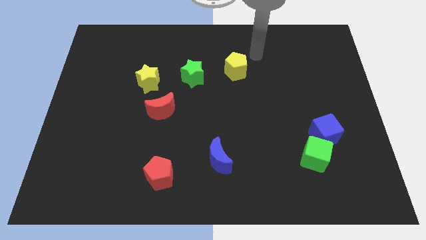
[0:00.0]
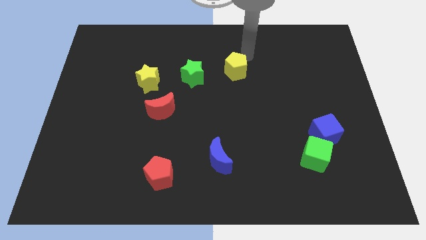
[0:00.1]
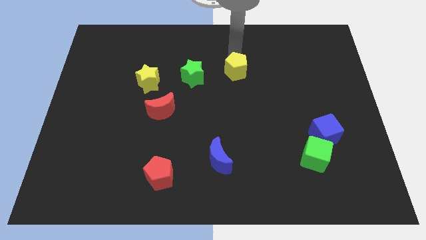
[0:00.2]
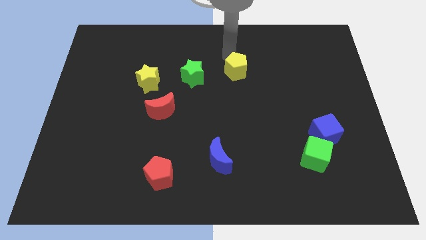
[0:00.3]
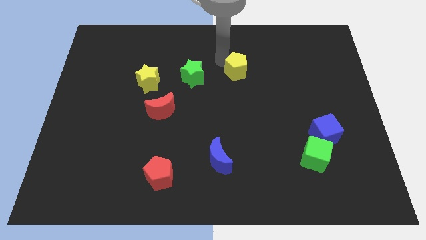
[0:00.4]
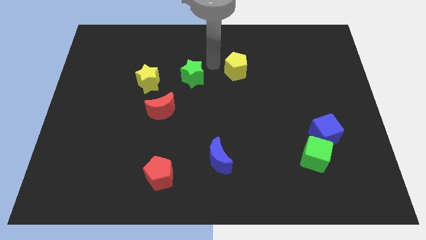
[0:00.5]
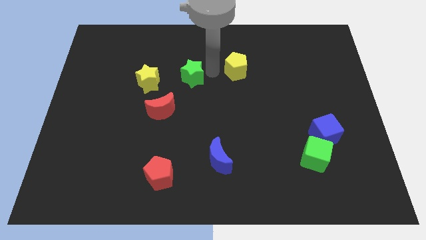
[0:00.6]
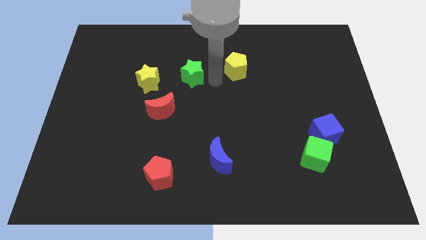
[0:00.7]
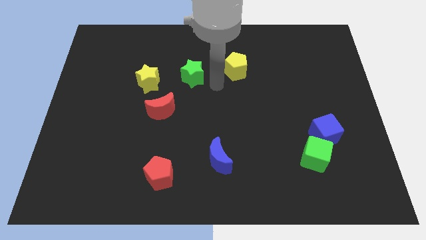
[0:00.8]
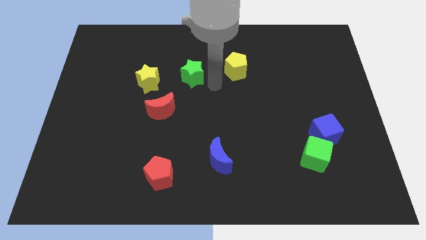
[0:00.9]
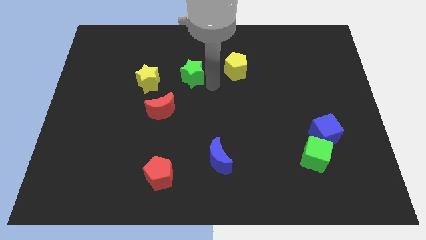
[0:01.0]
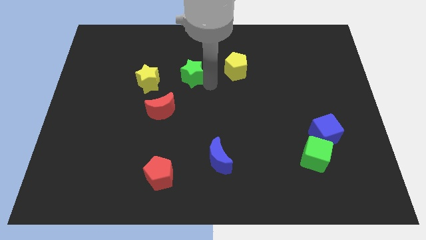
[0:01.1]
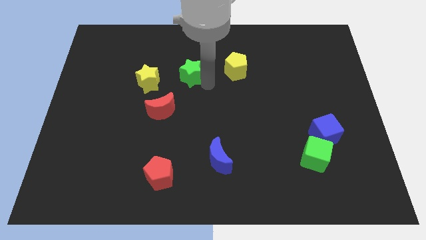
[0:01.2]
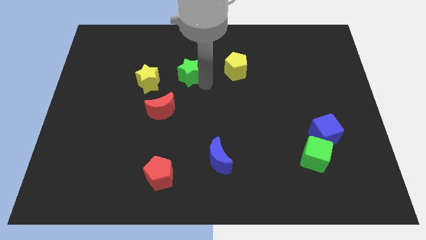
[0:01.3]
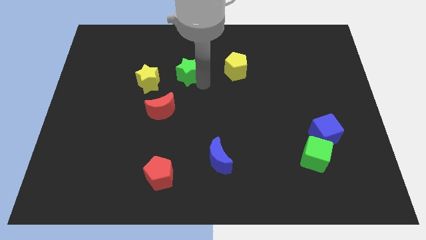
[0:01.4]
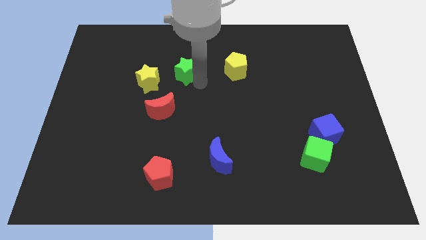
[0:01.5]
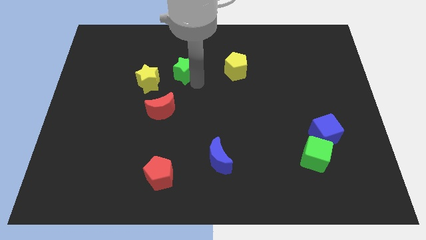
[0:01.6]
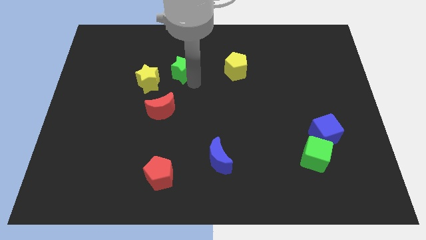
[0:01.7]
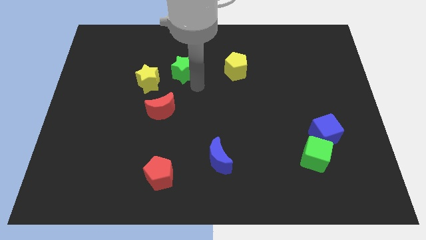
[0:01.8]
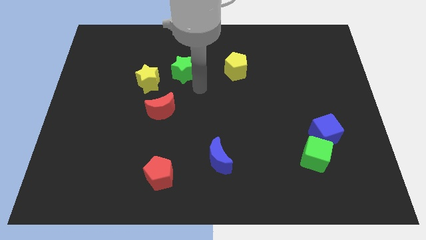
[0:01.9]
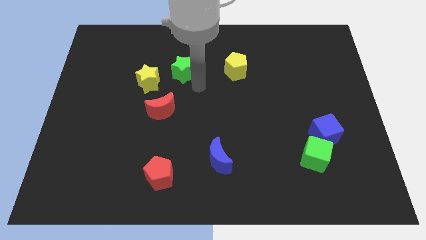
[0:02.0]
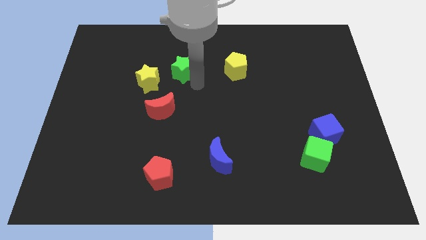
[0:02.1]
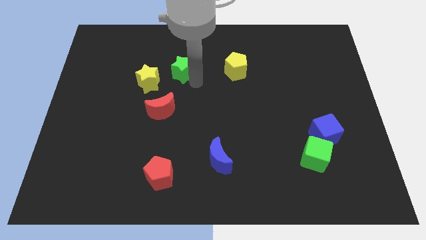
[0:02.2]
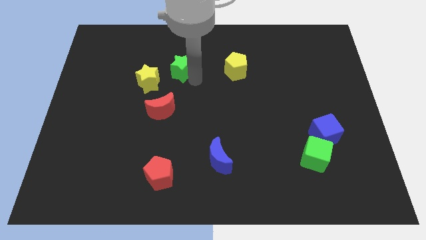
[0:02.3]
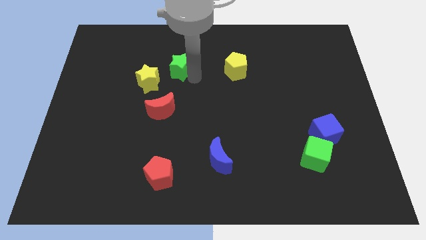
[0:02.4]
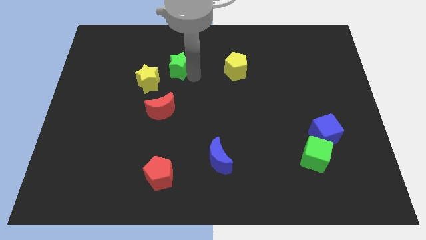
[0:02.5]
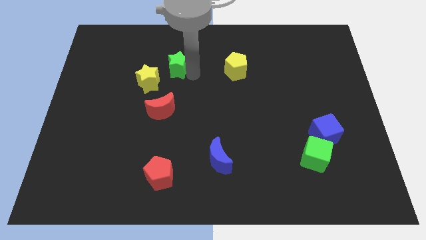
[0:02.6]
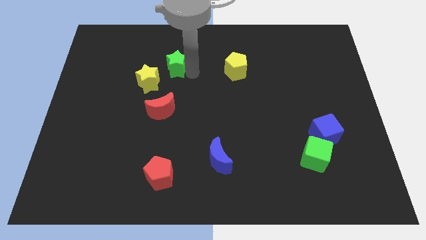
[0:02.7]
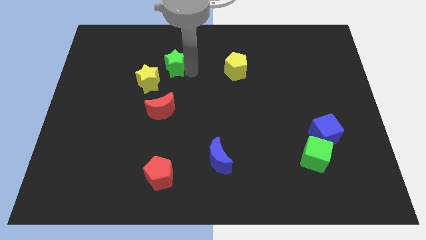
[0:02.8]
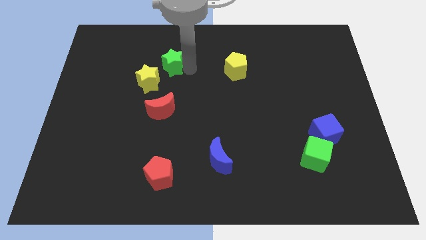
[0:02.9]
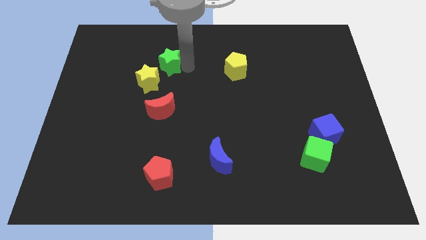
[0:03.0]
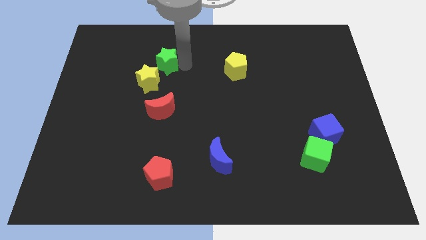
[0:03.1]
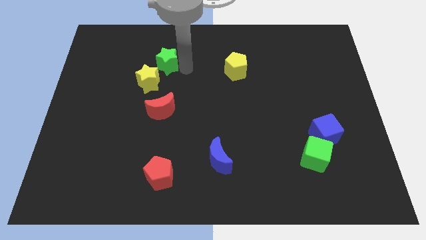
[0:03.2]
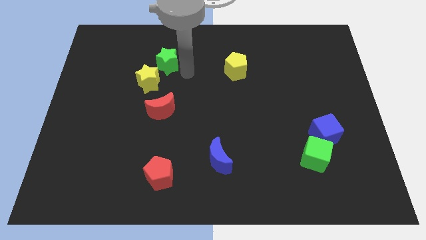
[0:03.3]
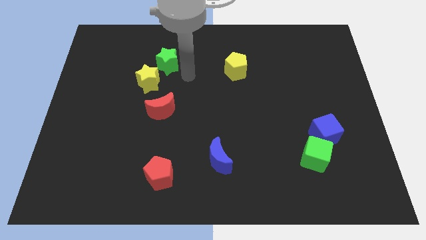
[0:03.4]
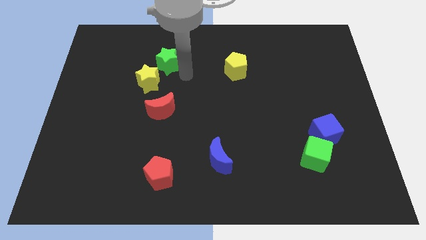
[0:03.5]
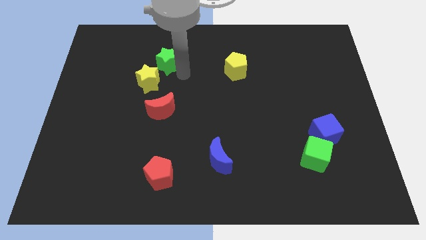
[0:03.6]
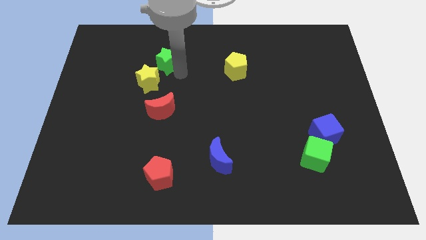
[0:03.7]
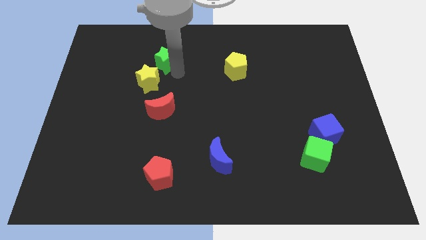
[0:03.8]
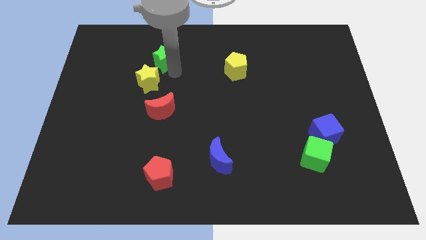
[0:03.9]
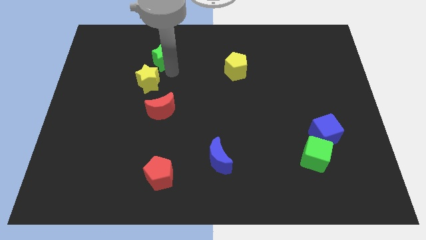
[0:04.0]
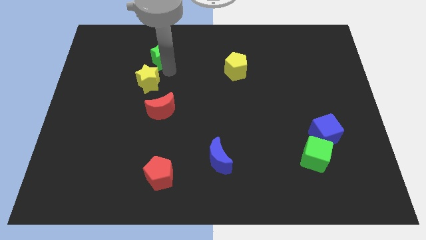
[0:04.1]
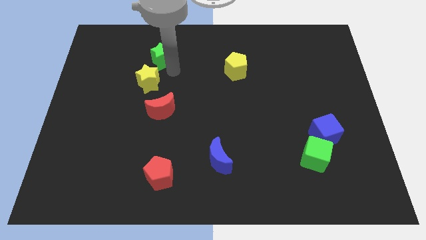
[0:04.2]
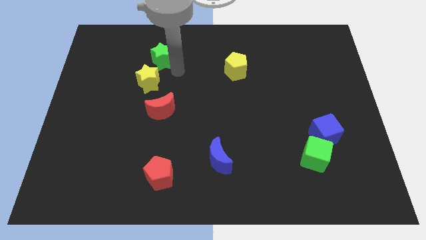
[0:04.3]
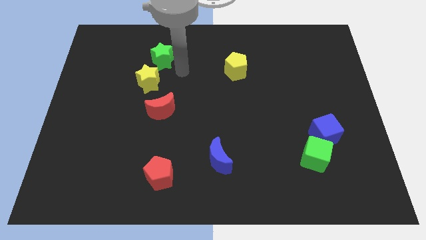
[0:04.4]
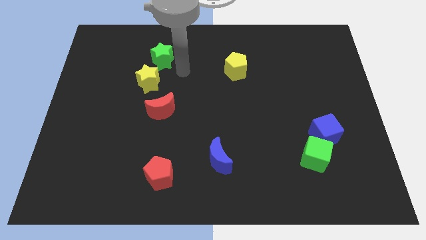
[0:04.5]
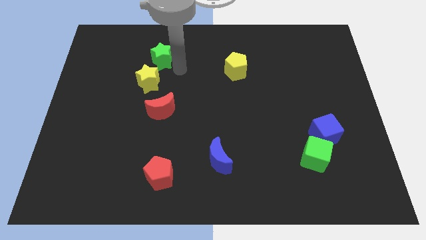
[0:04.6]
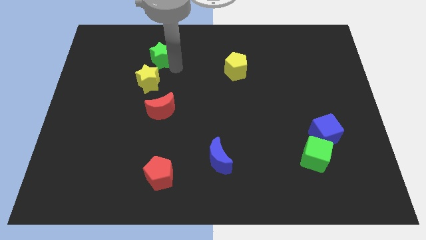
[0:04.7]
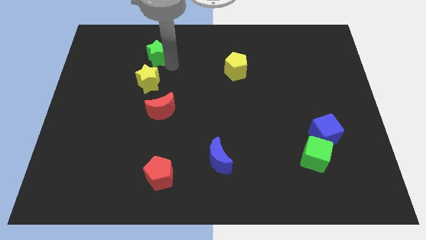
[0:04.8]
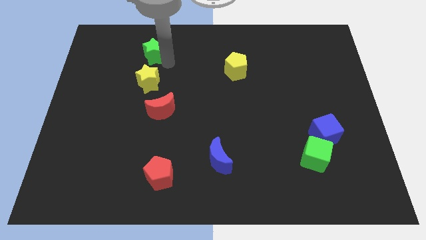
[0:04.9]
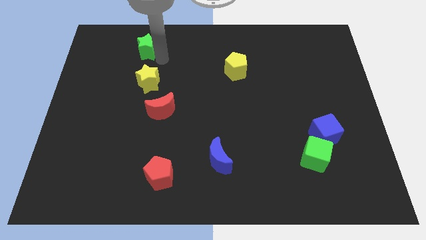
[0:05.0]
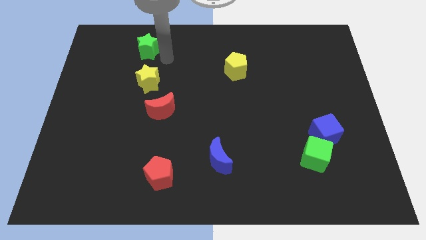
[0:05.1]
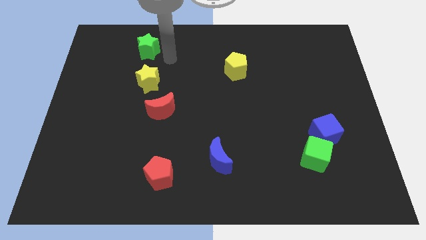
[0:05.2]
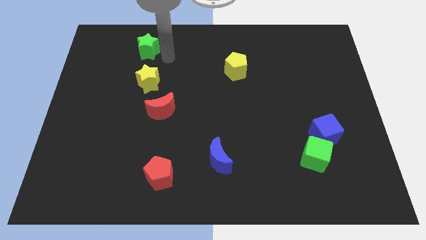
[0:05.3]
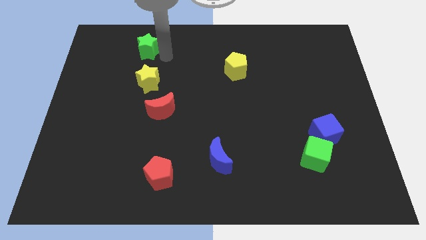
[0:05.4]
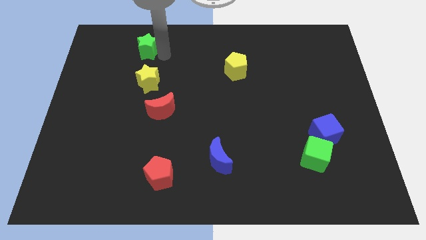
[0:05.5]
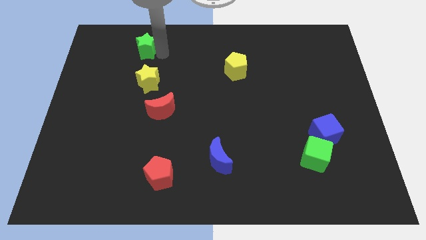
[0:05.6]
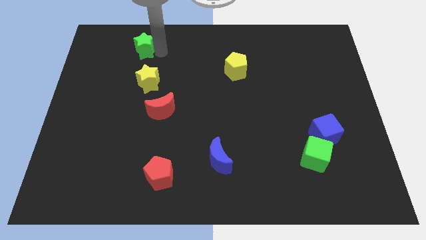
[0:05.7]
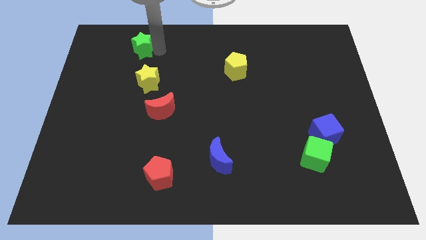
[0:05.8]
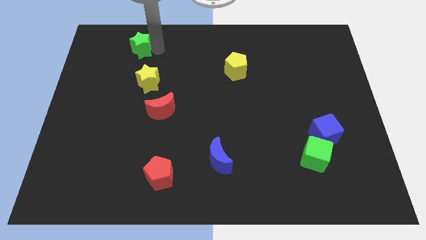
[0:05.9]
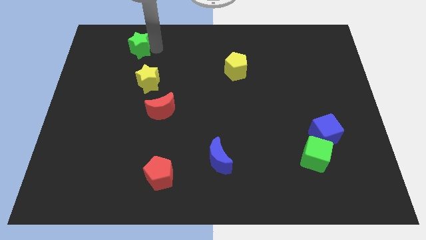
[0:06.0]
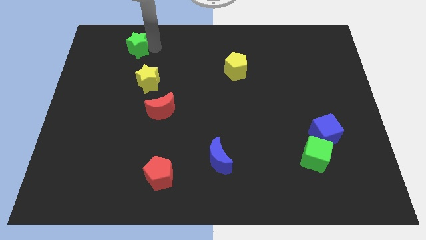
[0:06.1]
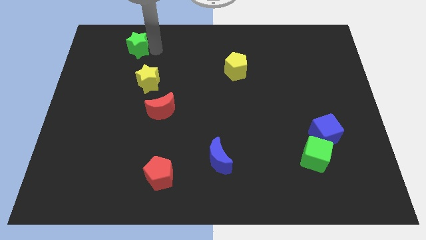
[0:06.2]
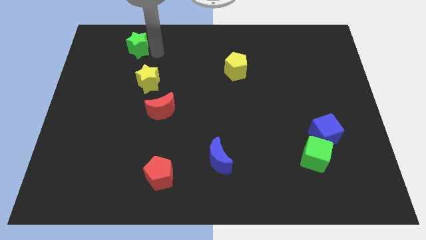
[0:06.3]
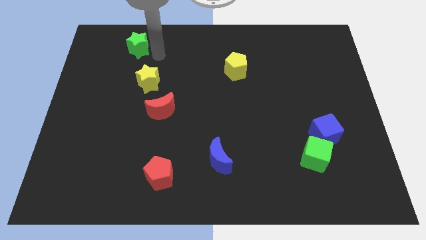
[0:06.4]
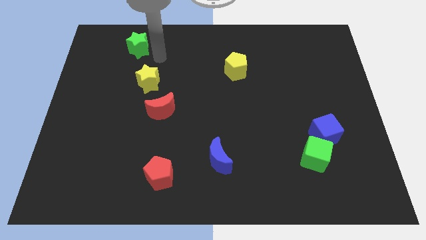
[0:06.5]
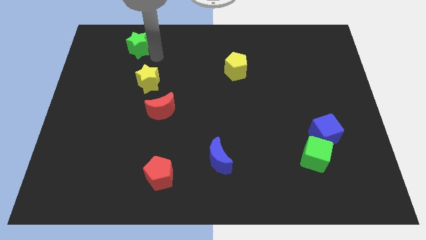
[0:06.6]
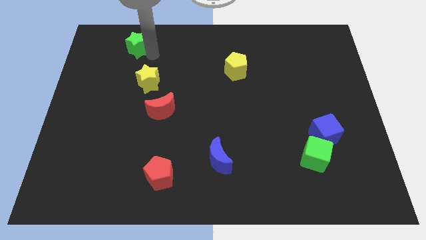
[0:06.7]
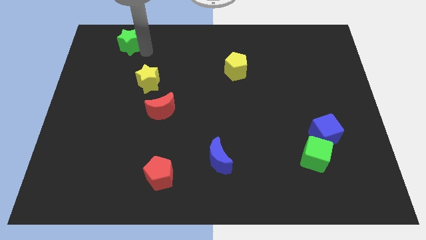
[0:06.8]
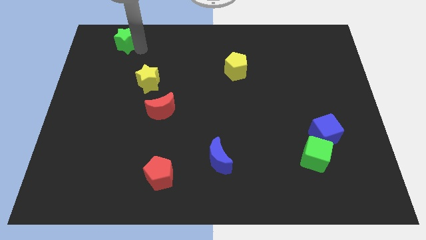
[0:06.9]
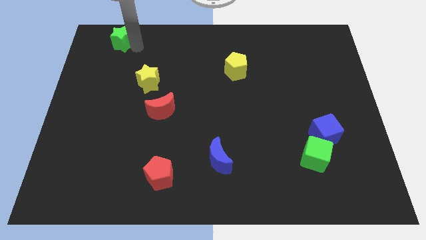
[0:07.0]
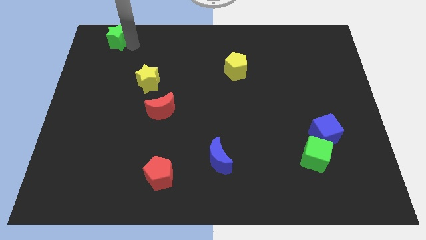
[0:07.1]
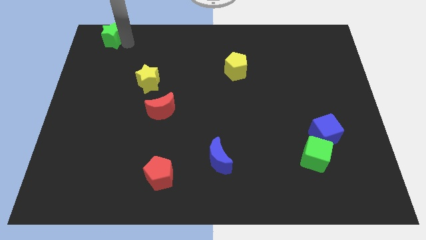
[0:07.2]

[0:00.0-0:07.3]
move the green star to the top left corner
